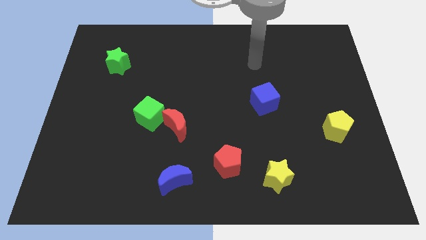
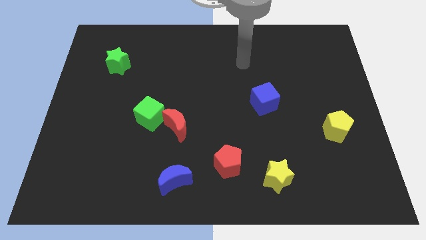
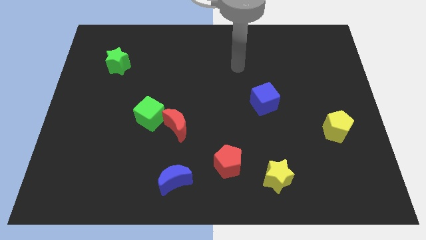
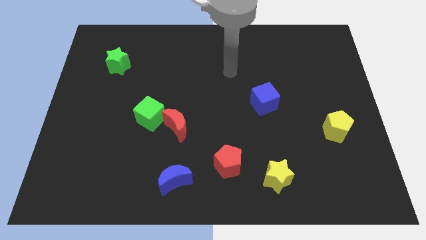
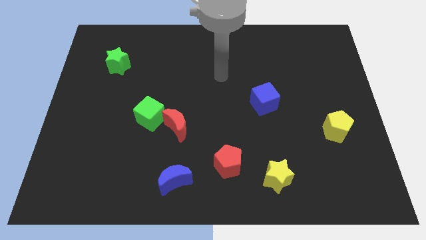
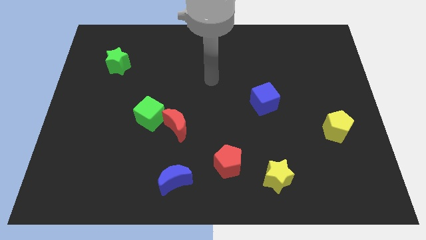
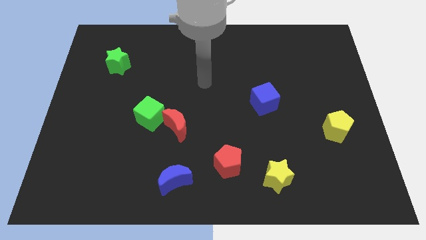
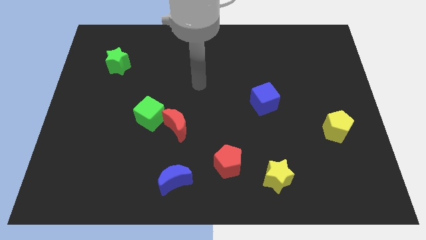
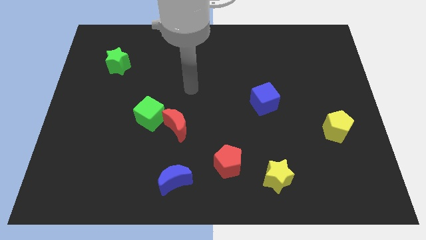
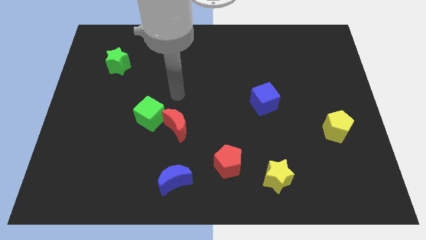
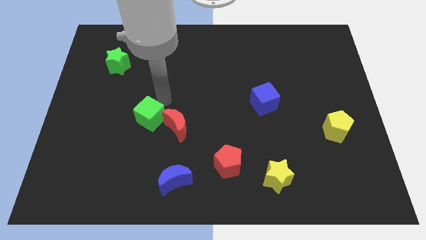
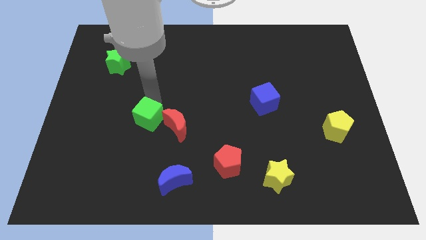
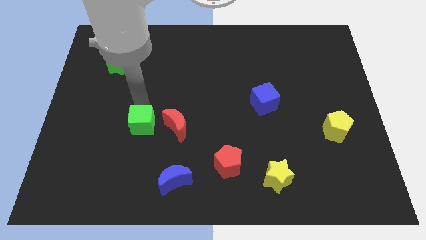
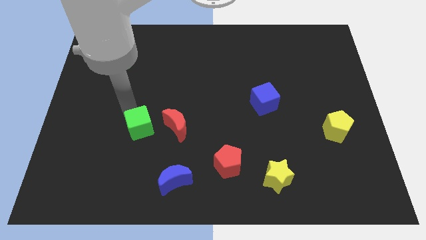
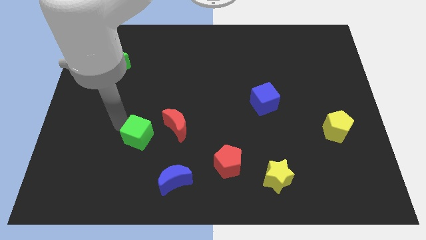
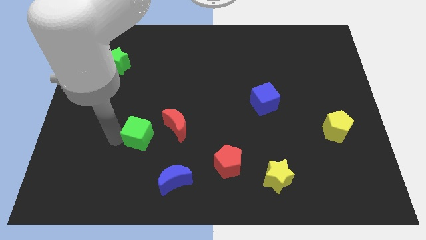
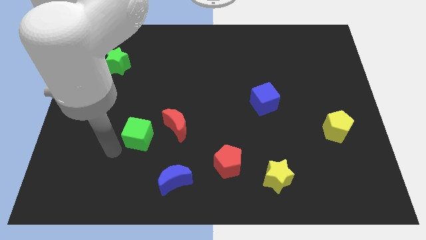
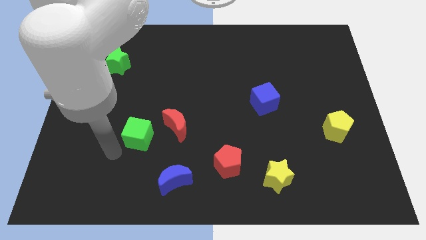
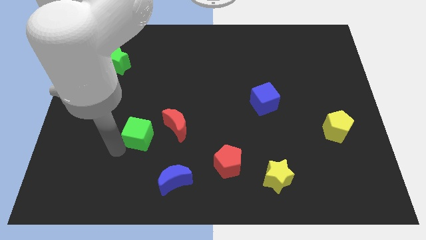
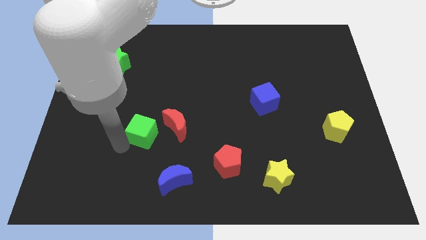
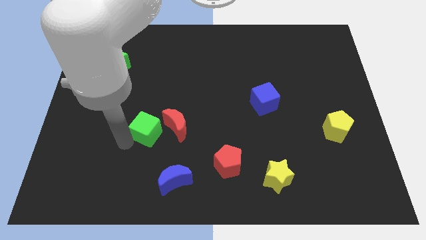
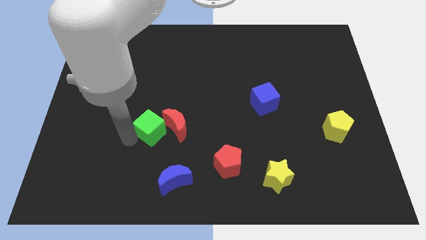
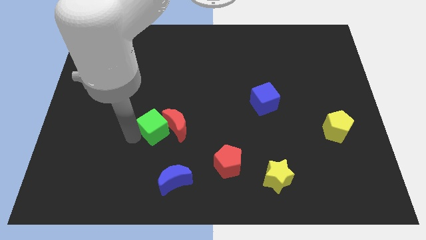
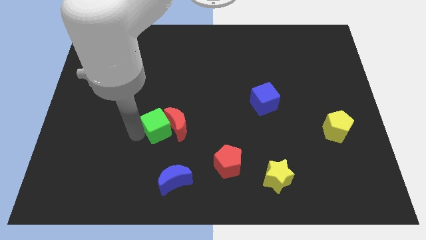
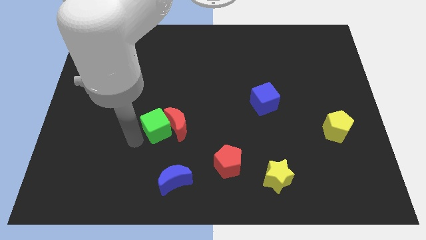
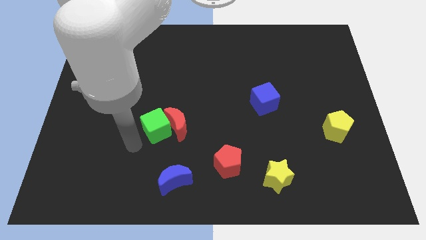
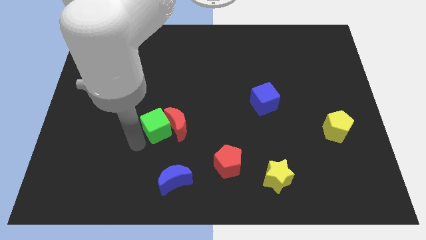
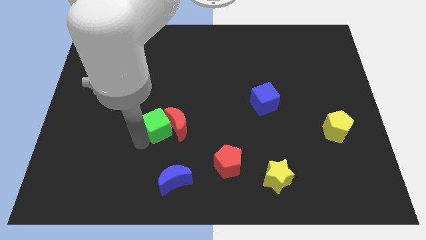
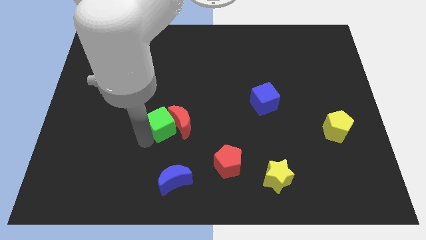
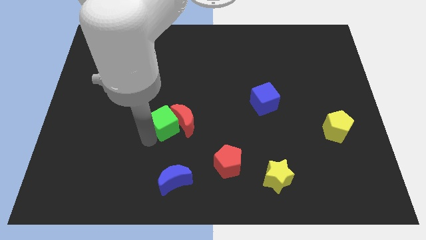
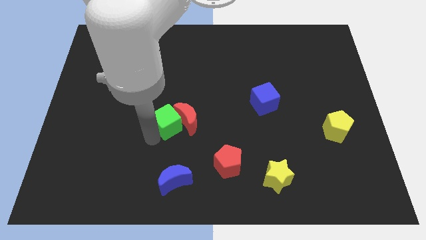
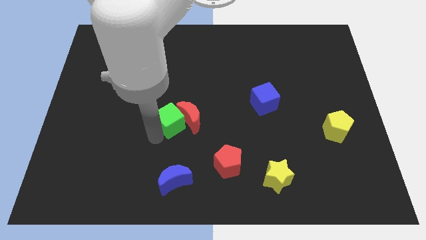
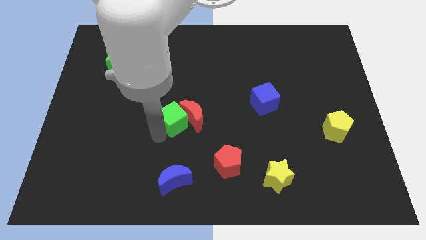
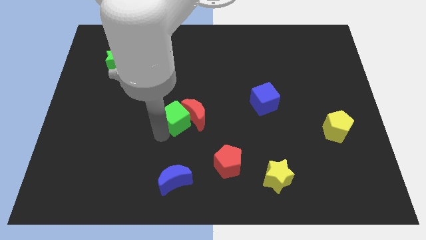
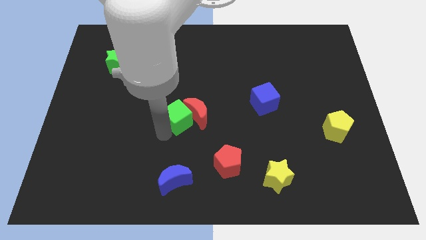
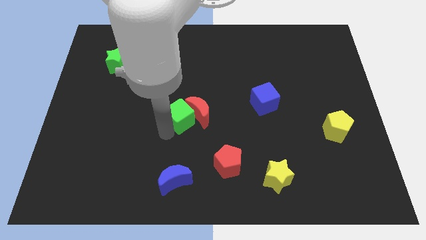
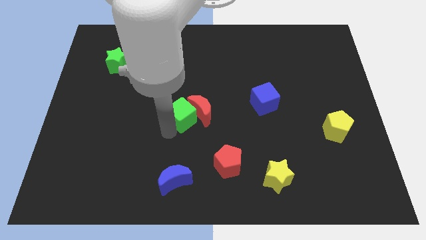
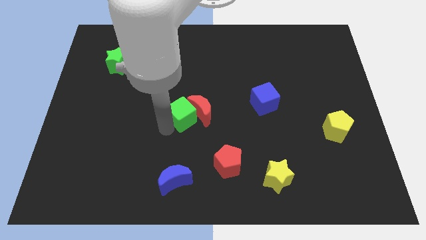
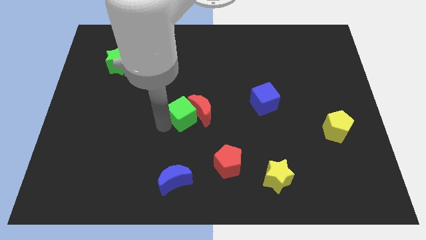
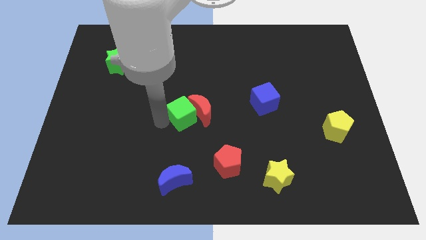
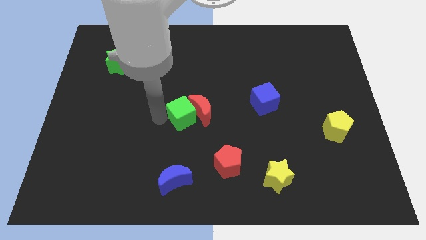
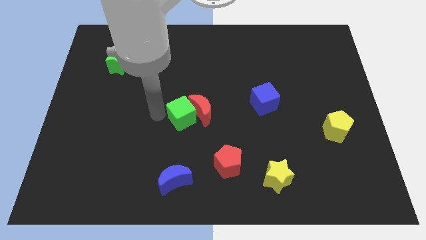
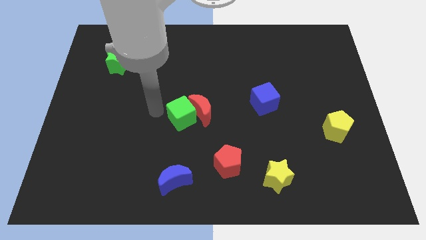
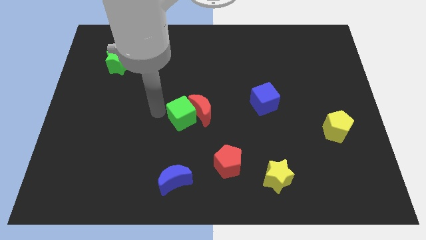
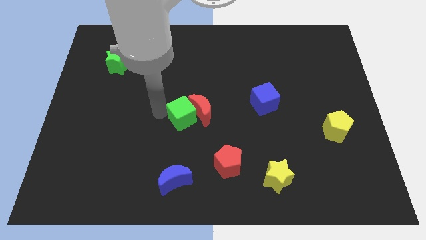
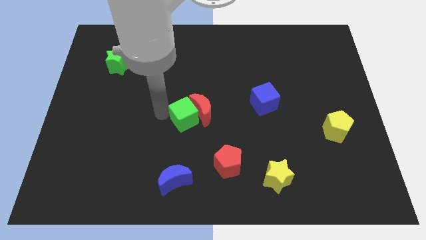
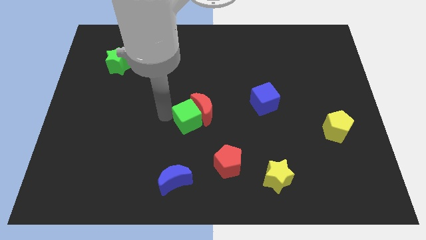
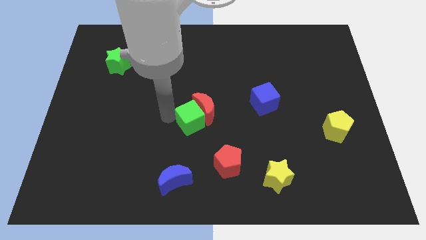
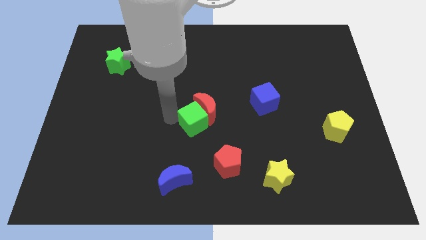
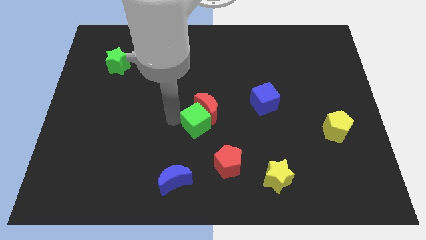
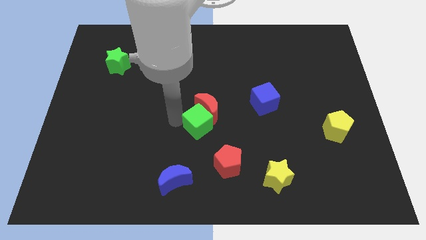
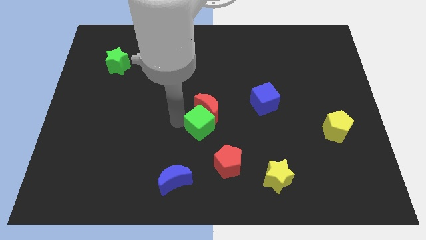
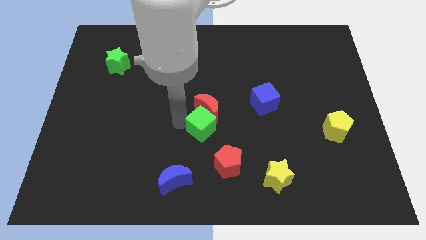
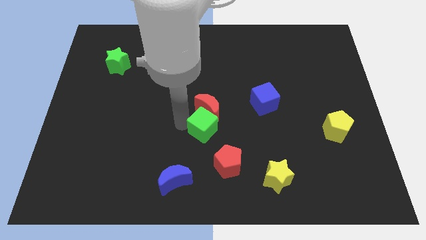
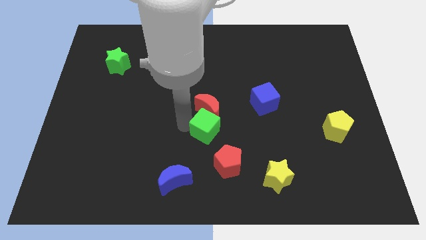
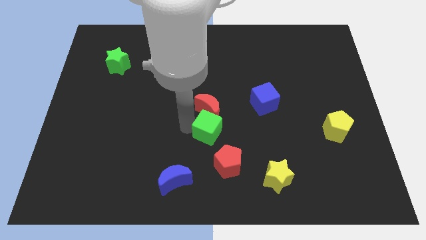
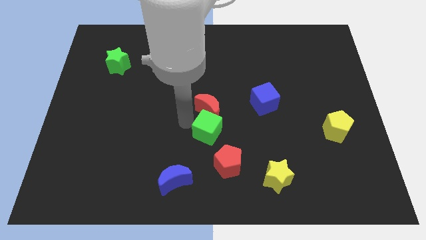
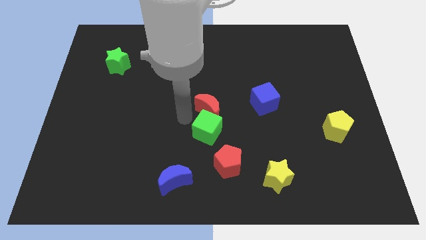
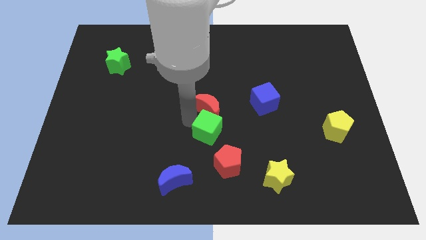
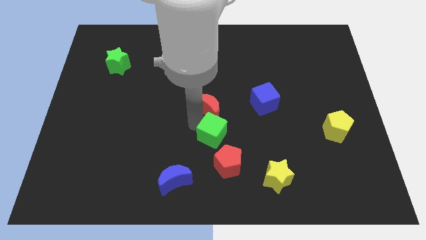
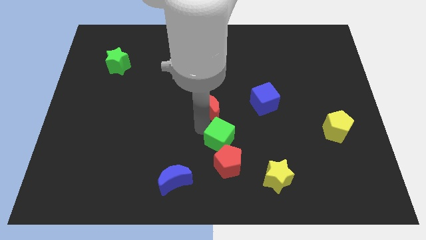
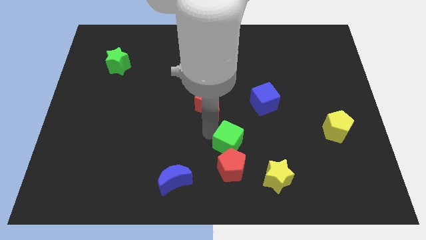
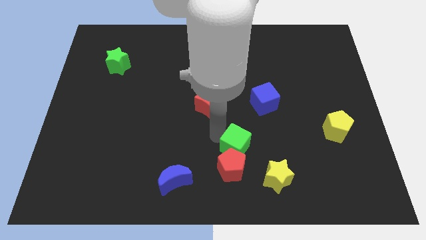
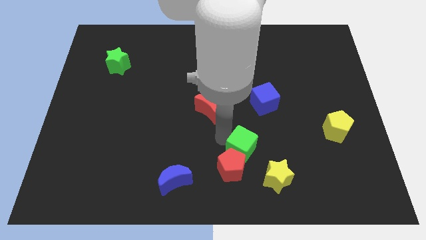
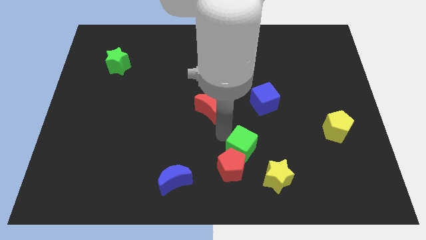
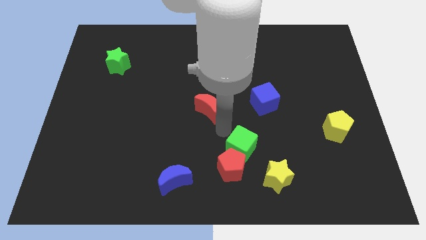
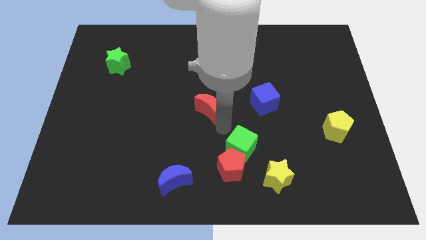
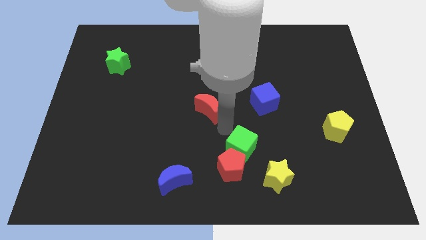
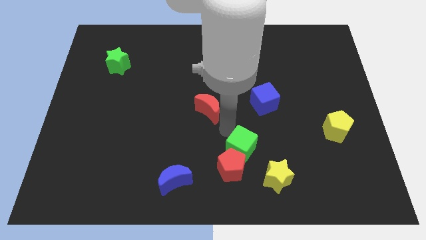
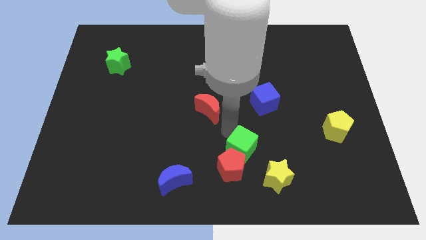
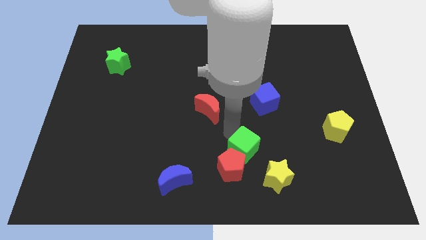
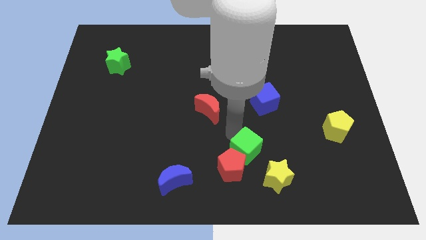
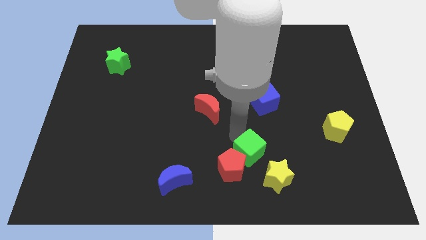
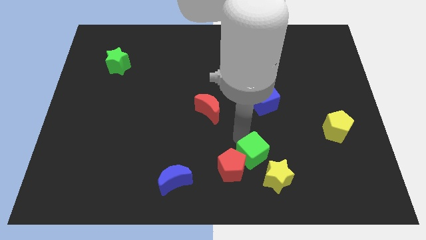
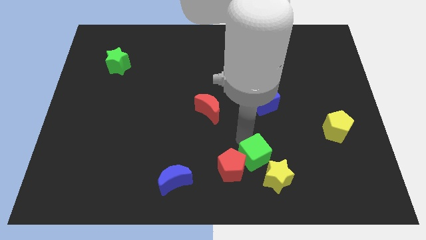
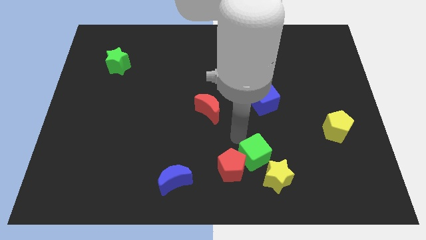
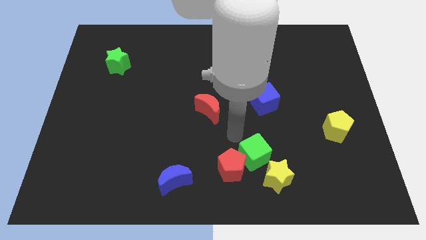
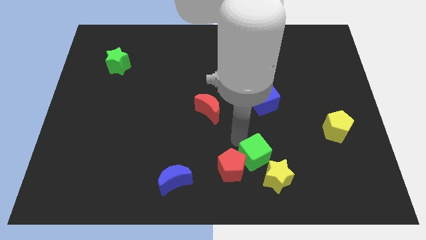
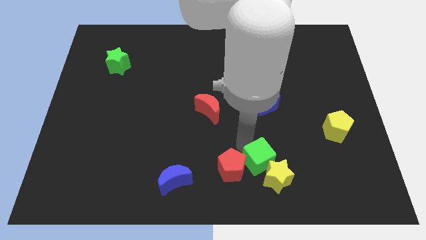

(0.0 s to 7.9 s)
push the green cube to the yellow star
